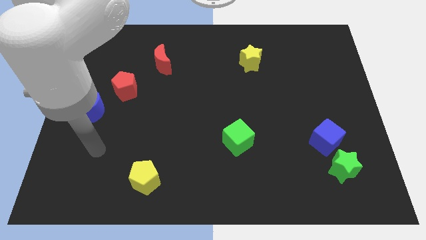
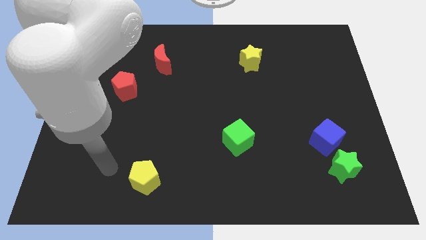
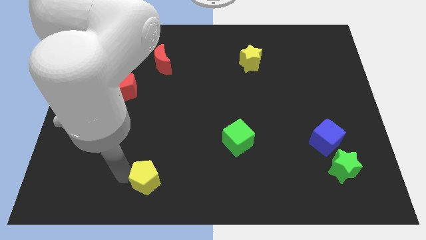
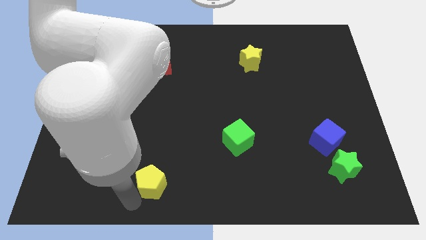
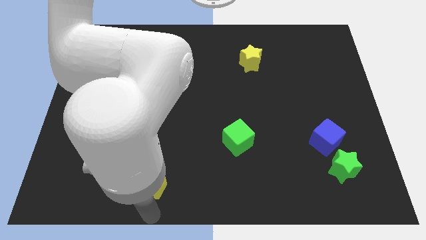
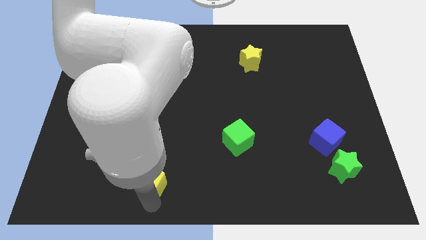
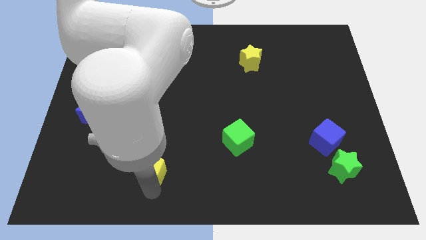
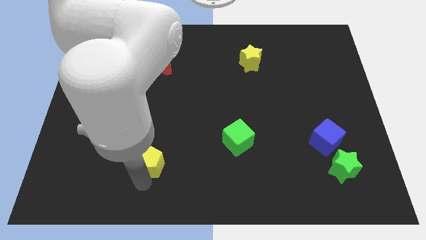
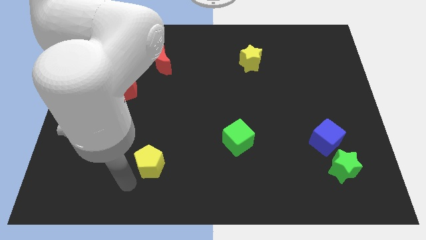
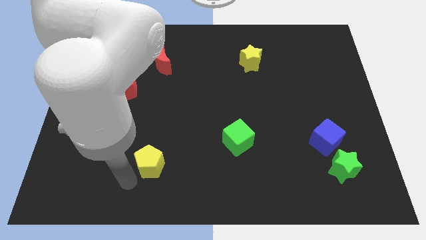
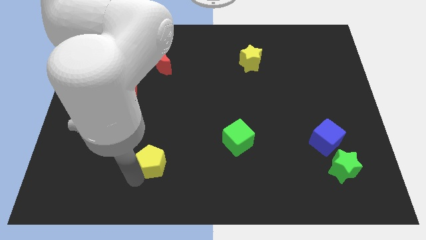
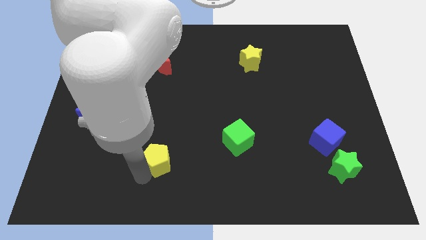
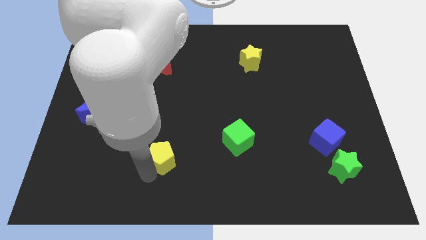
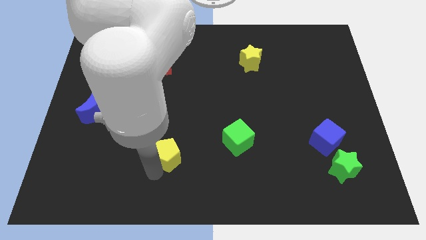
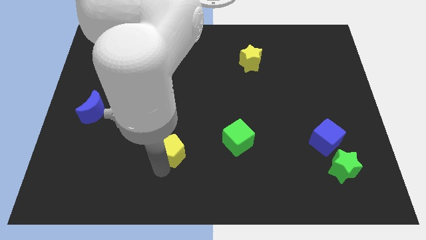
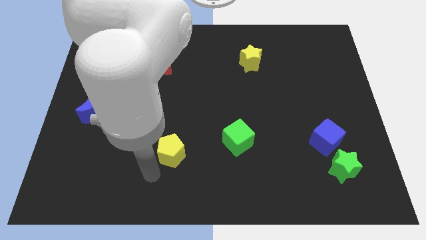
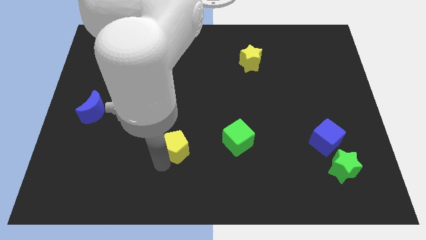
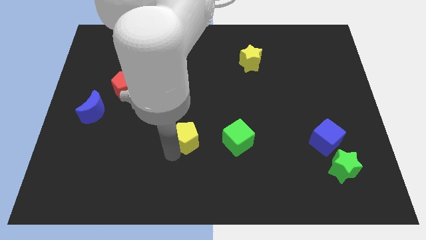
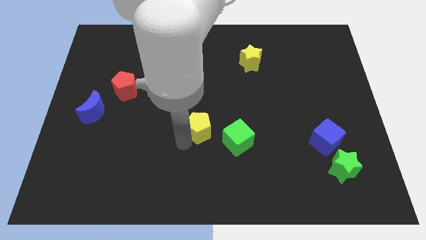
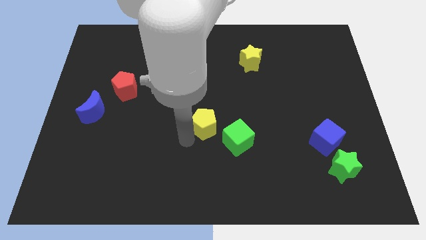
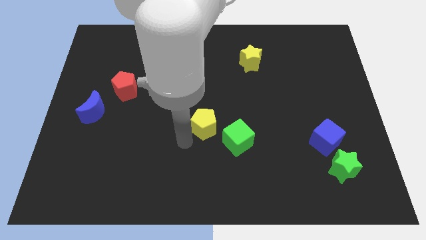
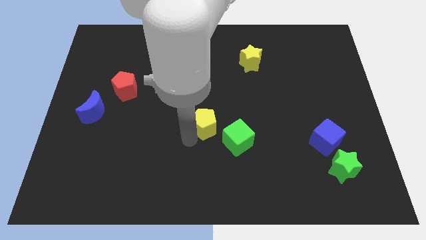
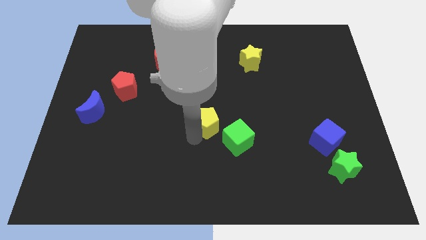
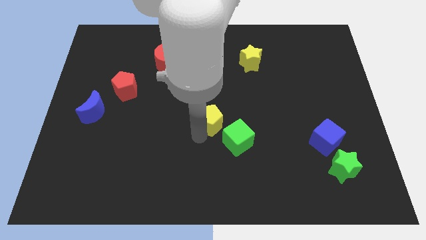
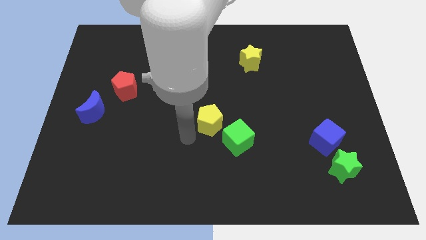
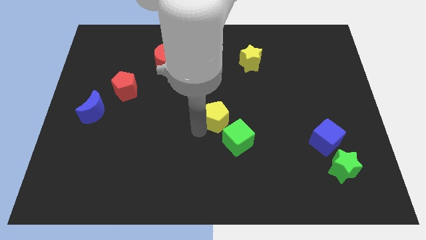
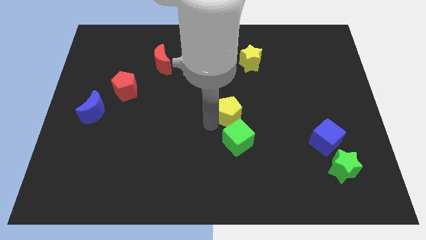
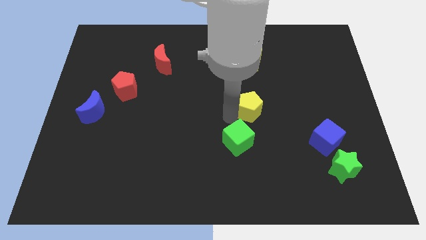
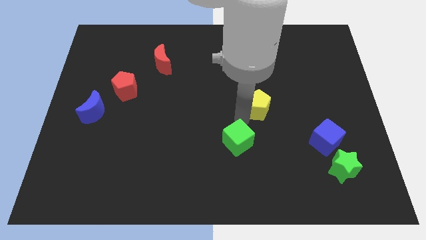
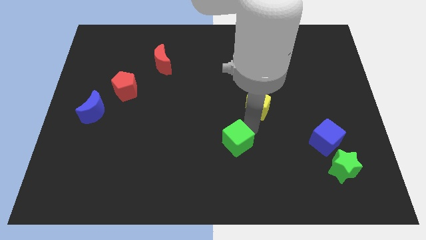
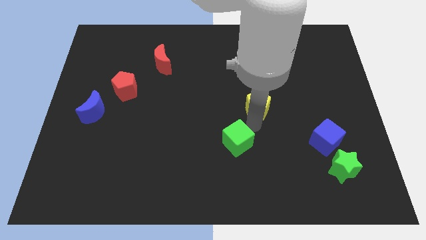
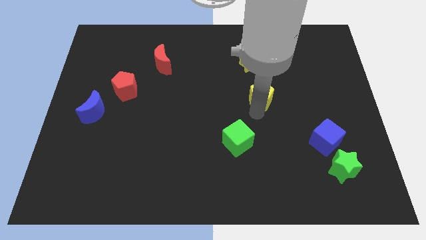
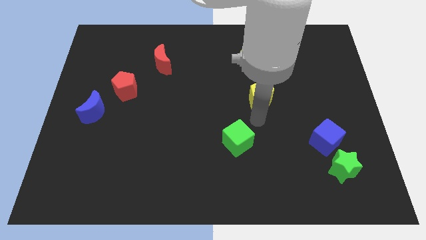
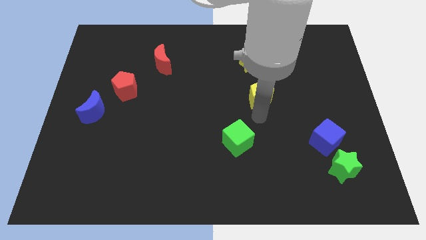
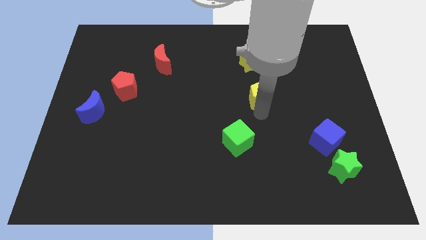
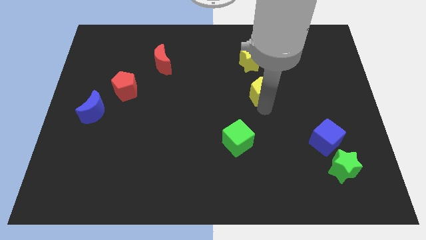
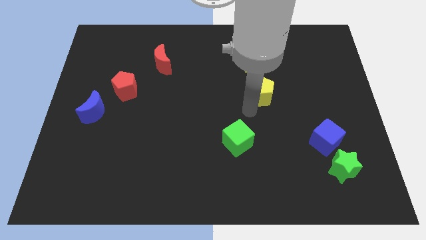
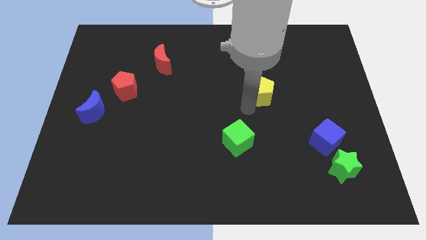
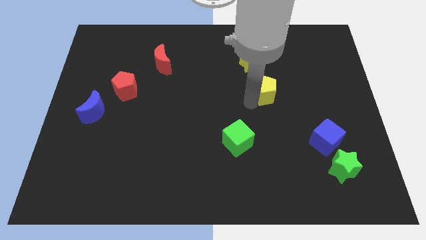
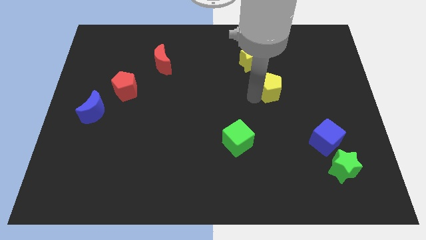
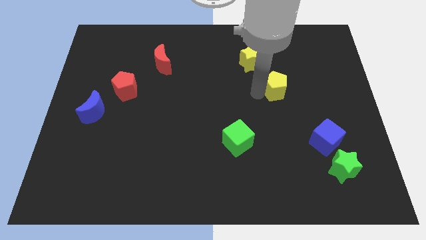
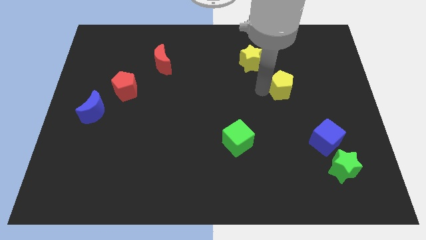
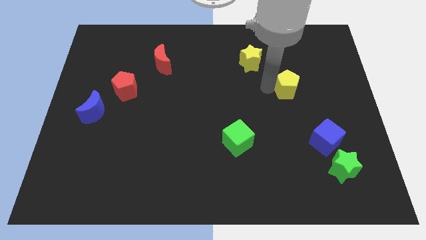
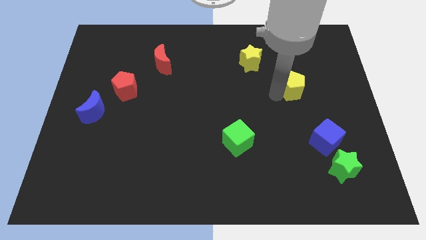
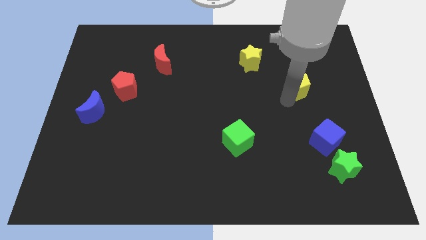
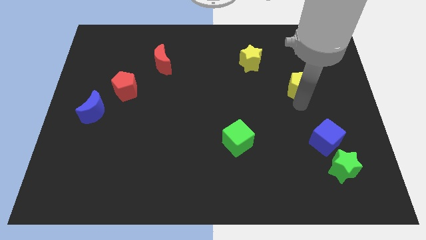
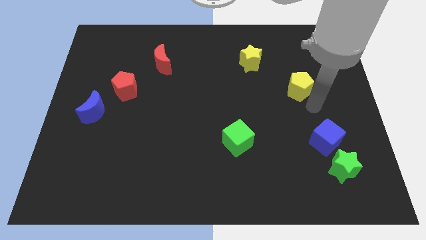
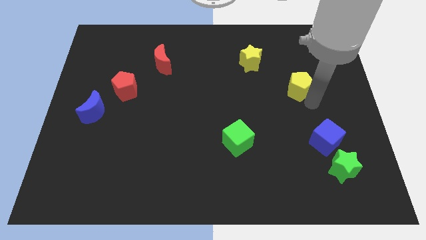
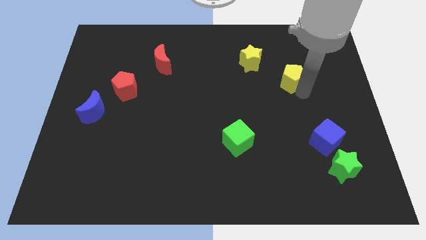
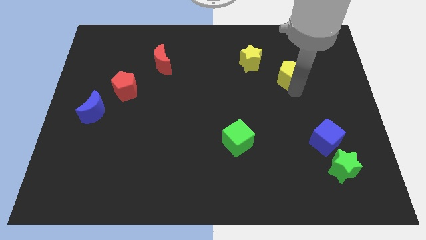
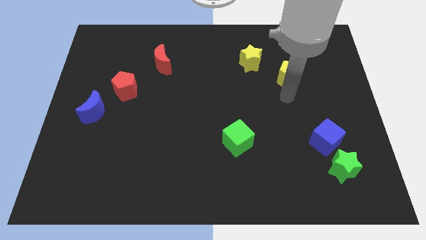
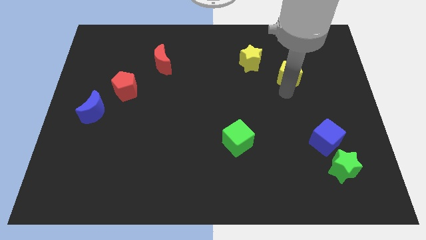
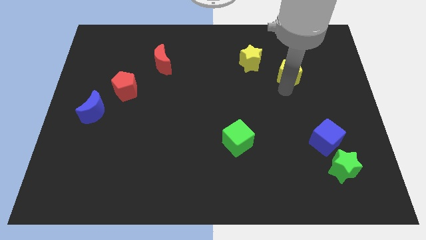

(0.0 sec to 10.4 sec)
move the yellow pentagon right of the yellow star

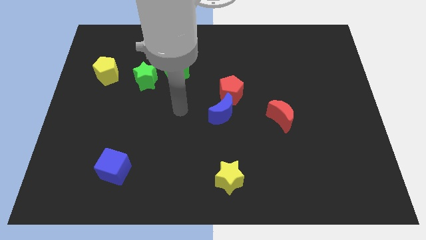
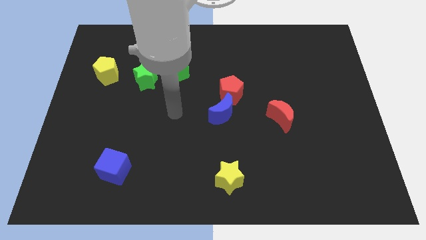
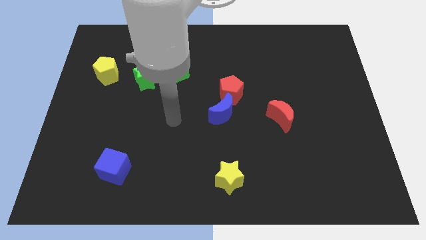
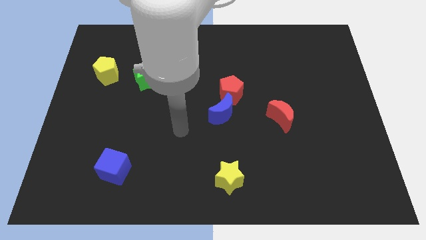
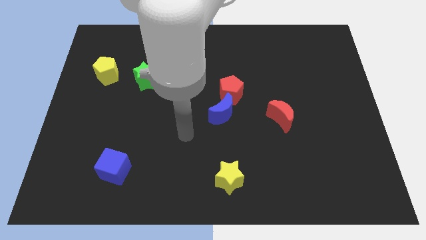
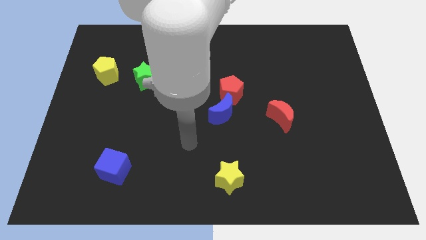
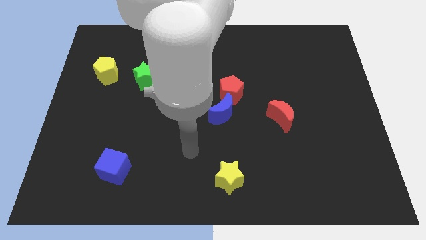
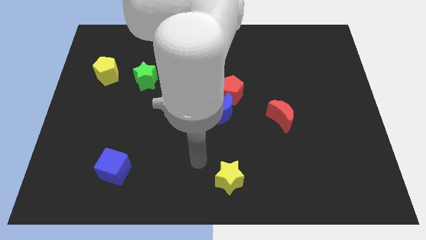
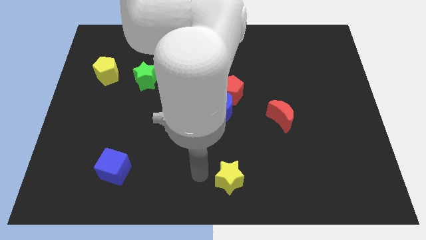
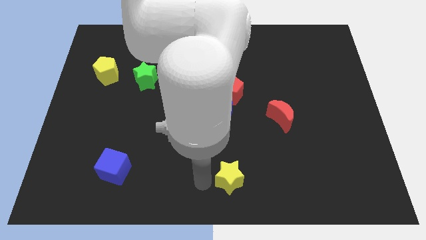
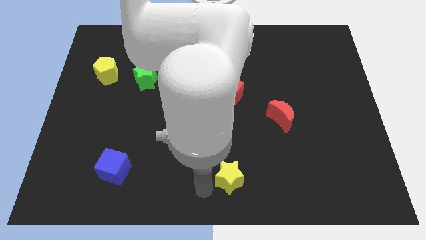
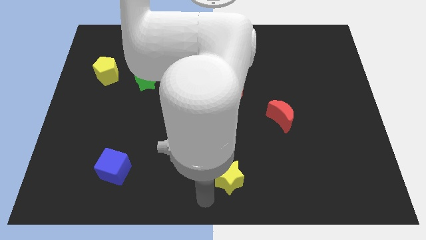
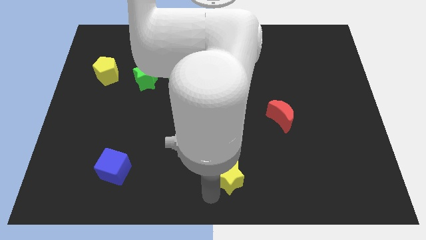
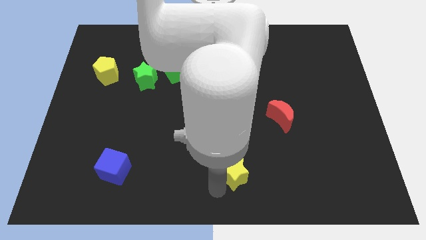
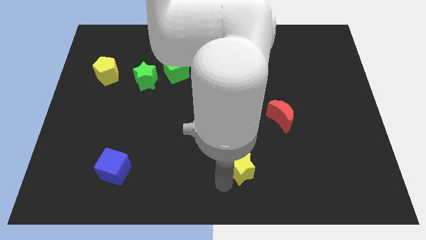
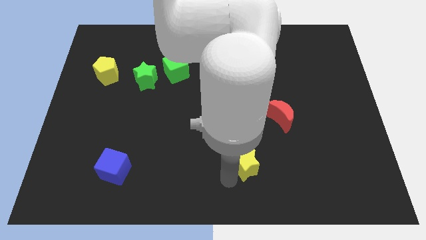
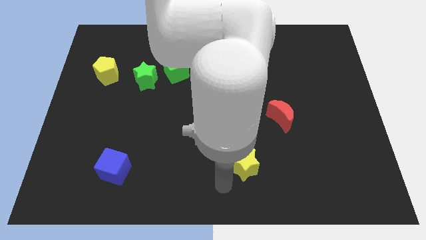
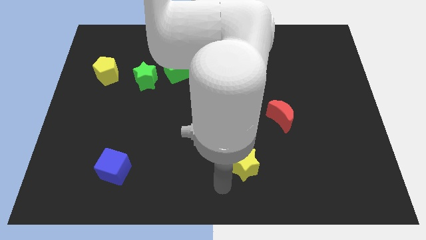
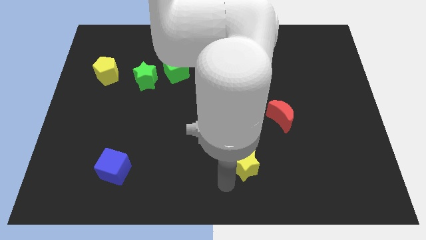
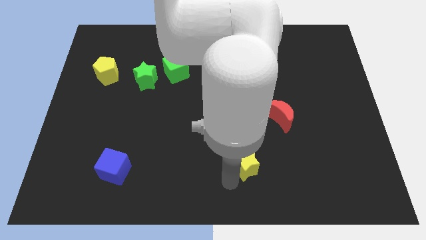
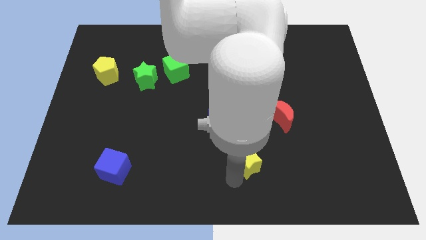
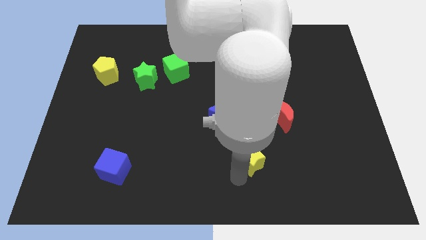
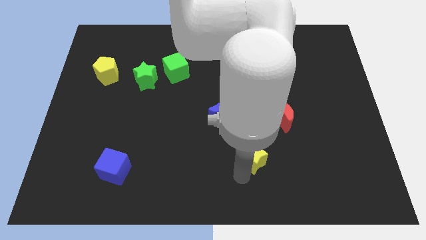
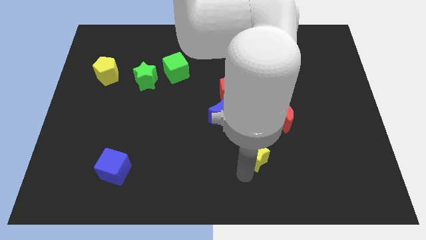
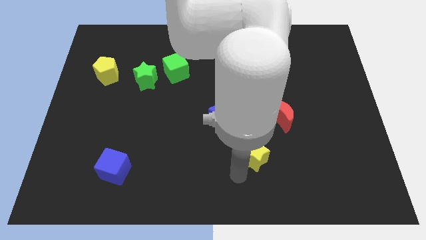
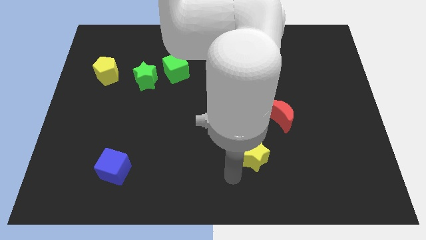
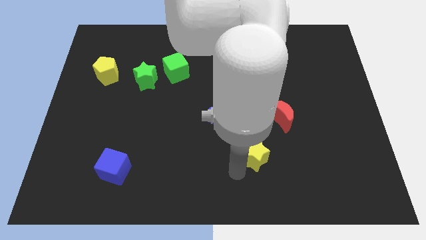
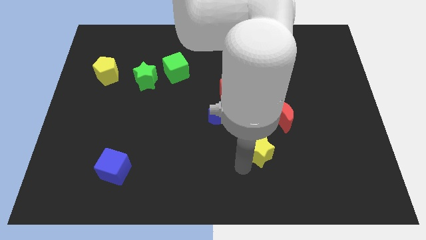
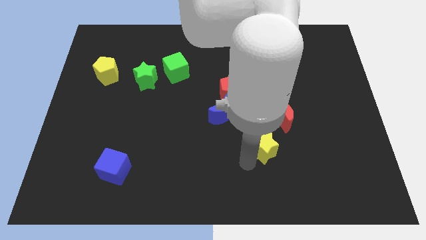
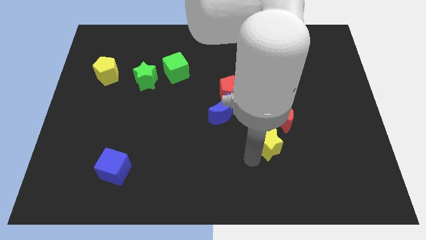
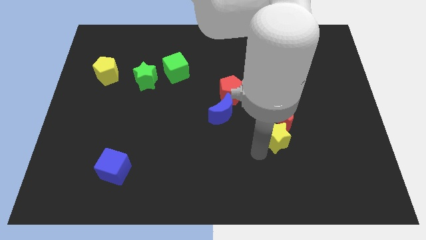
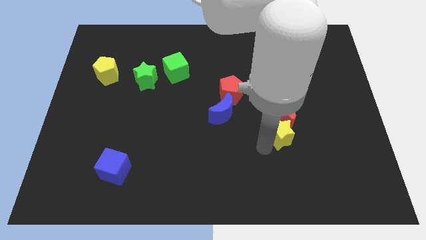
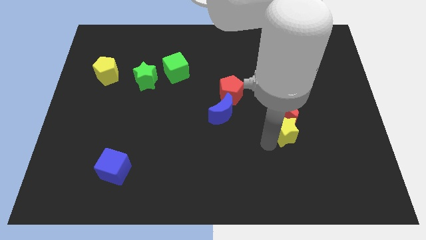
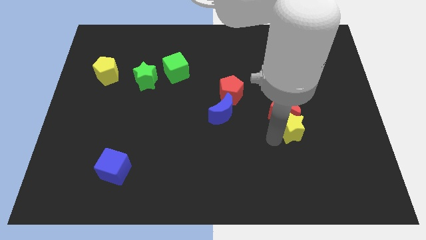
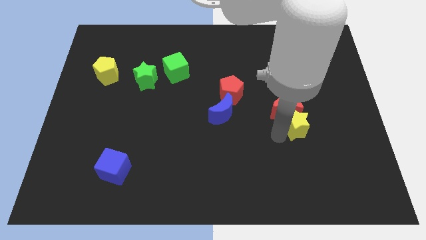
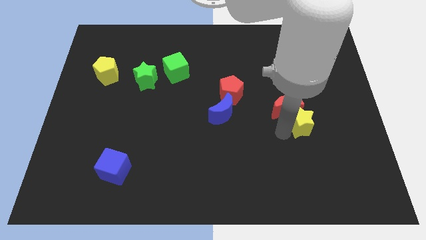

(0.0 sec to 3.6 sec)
move the yellow star to the right side of the red moon
